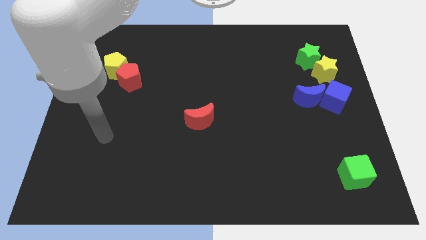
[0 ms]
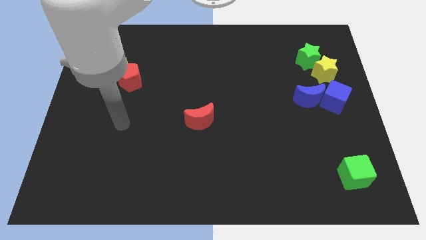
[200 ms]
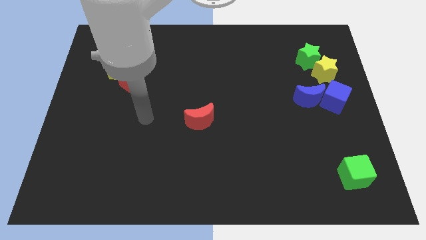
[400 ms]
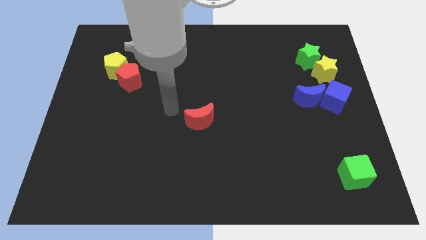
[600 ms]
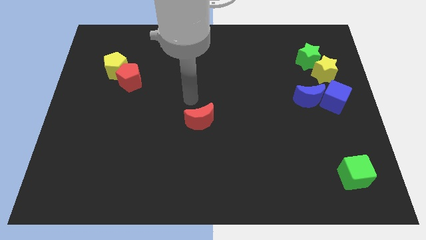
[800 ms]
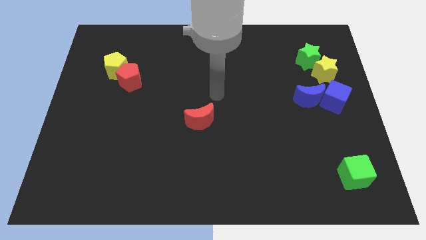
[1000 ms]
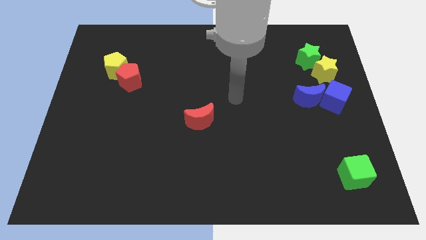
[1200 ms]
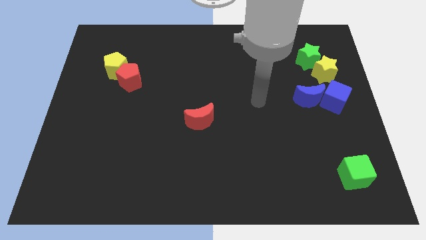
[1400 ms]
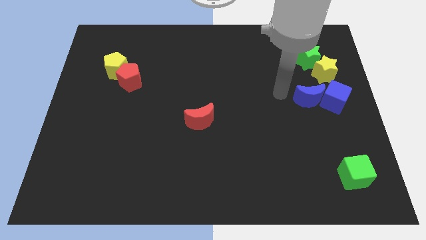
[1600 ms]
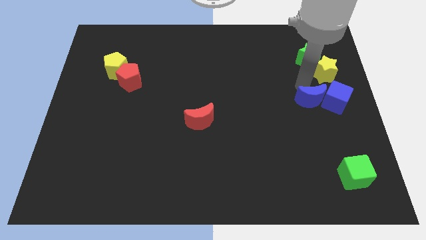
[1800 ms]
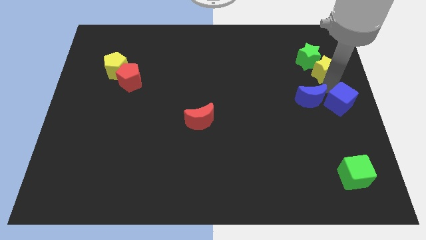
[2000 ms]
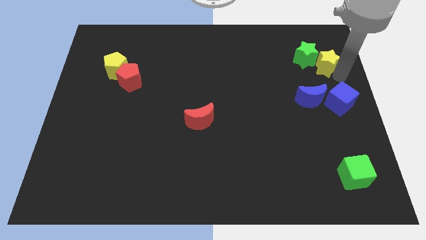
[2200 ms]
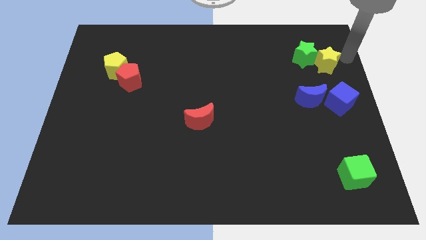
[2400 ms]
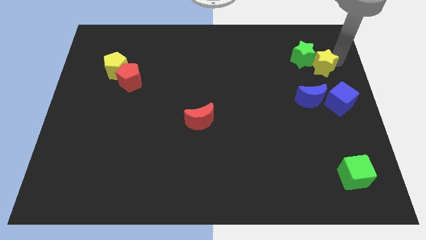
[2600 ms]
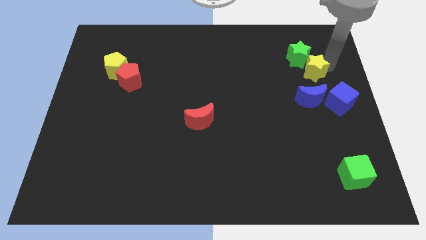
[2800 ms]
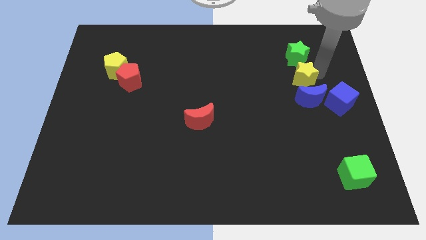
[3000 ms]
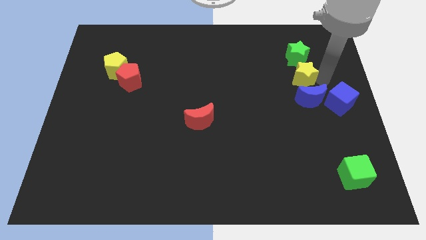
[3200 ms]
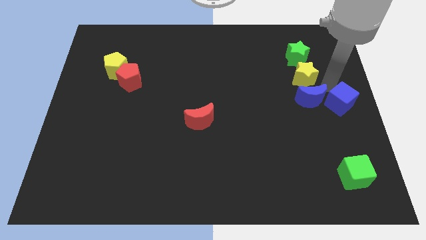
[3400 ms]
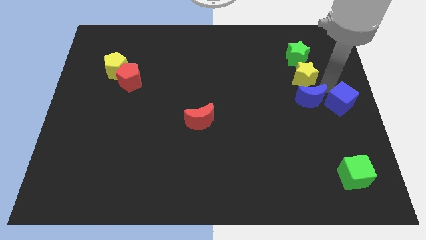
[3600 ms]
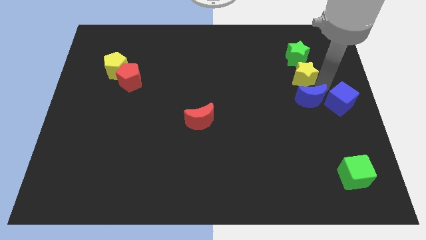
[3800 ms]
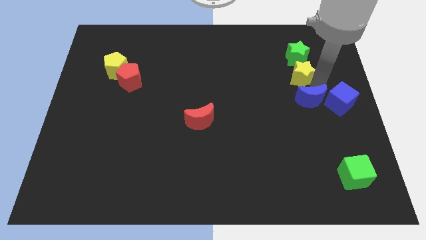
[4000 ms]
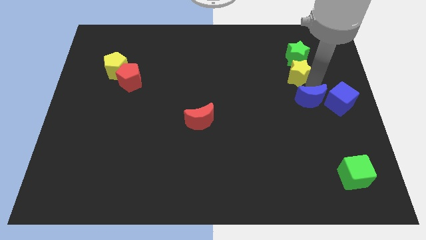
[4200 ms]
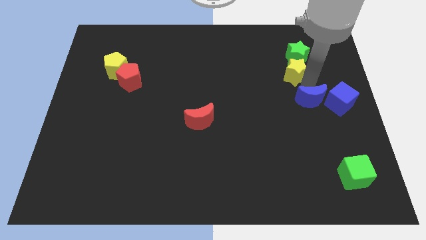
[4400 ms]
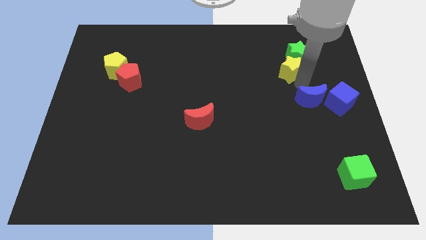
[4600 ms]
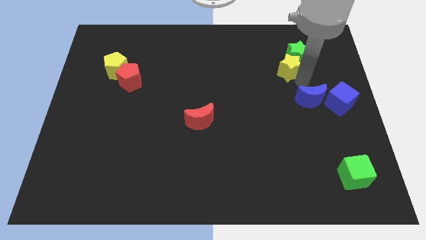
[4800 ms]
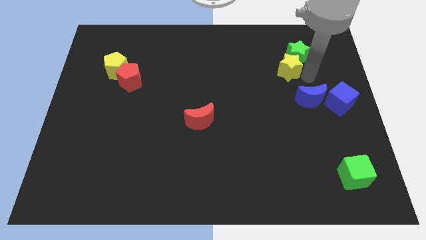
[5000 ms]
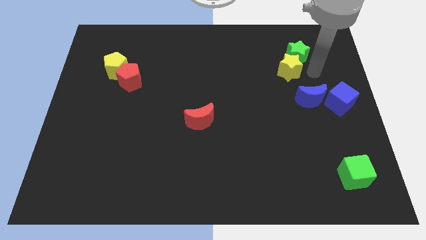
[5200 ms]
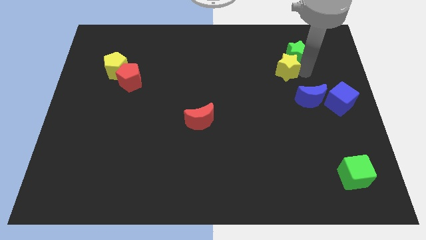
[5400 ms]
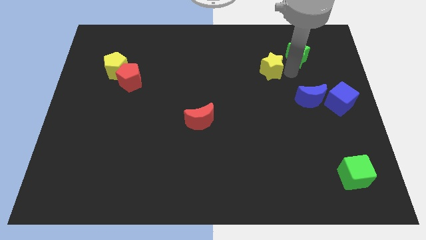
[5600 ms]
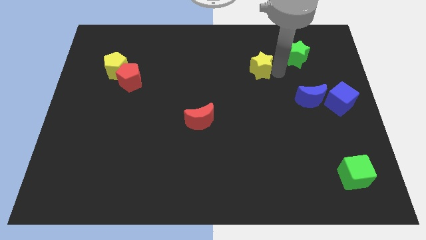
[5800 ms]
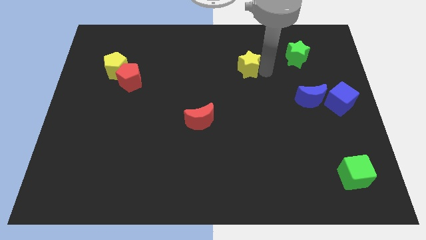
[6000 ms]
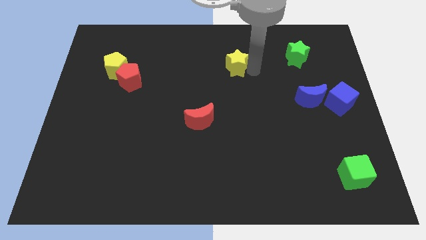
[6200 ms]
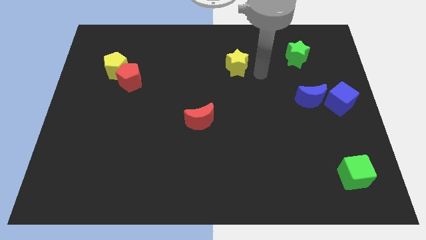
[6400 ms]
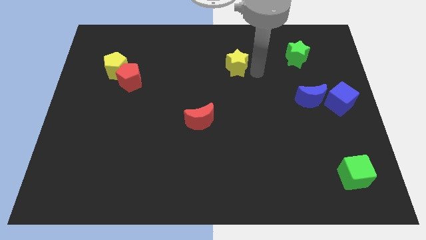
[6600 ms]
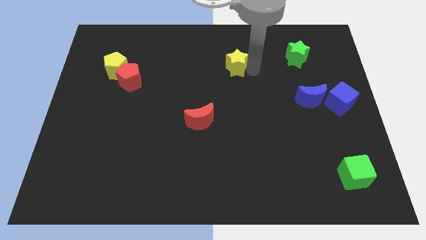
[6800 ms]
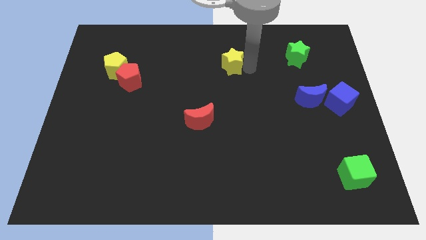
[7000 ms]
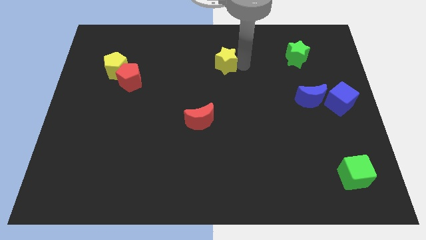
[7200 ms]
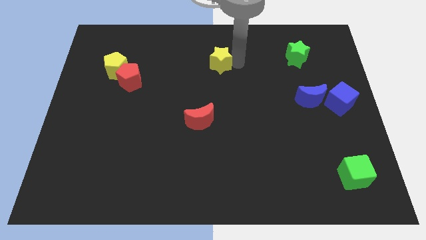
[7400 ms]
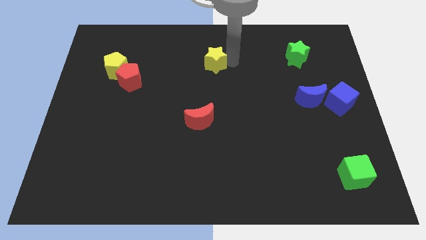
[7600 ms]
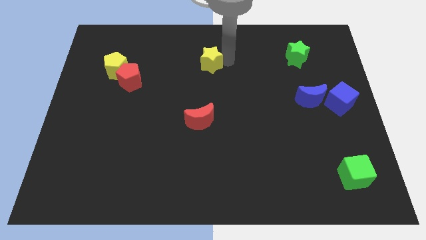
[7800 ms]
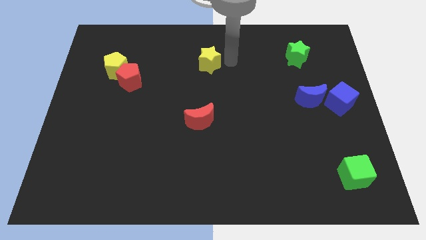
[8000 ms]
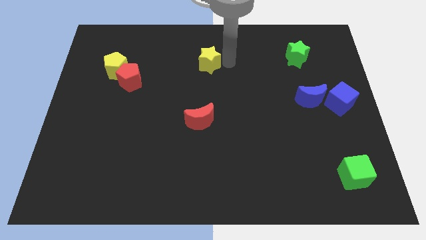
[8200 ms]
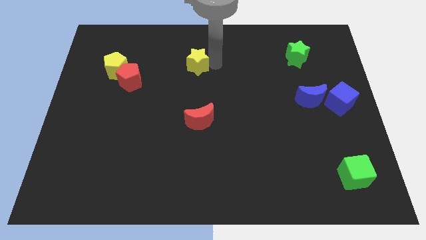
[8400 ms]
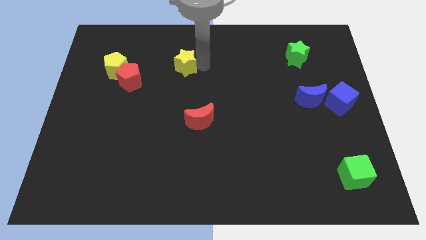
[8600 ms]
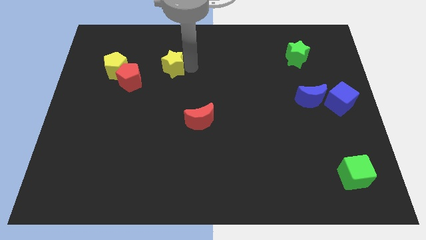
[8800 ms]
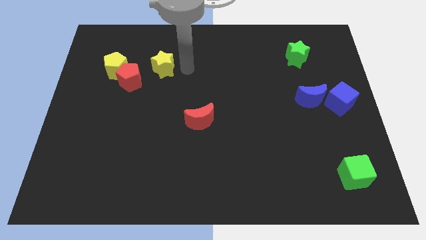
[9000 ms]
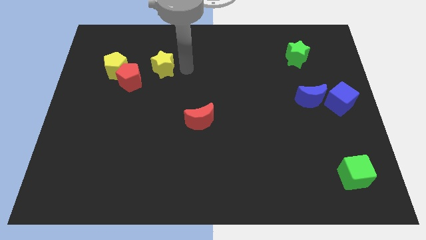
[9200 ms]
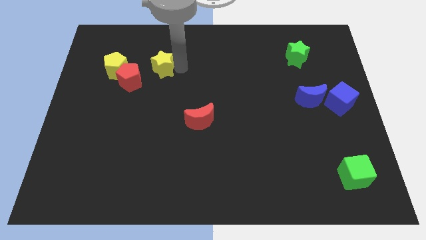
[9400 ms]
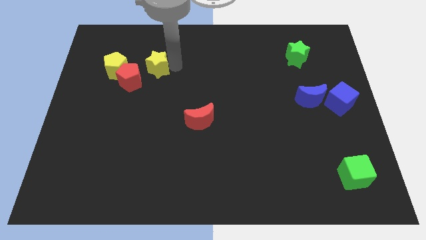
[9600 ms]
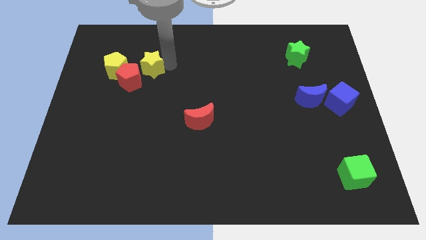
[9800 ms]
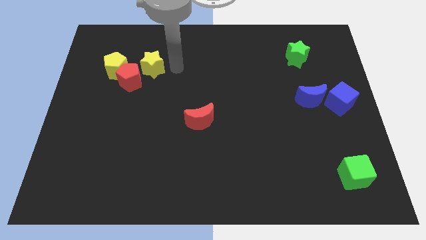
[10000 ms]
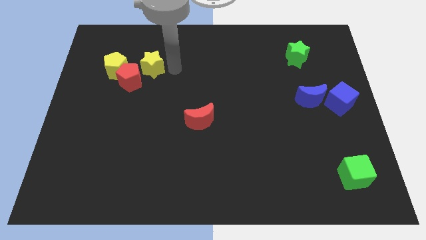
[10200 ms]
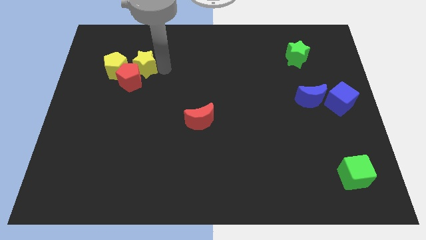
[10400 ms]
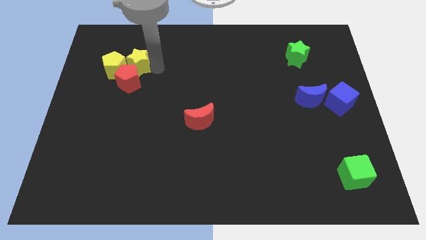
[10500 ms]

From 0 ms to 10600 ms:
put the yellow star close to the yellow pentagon
